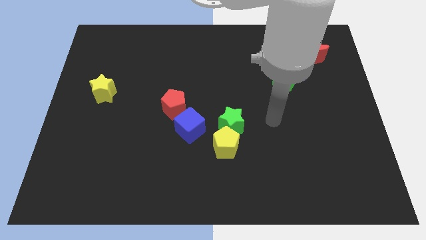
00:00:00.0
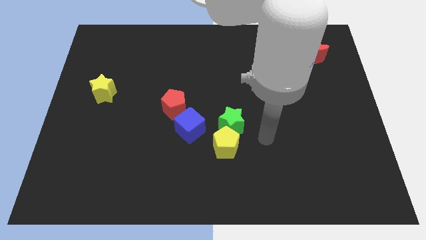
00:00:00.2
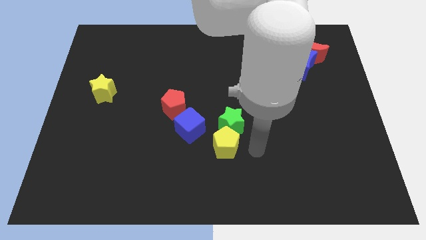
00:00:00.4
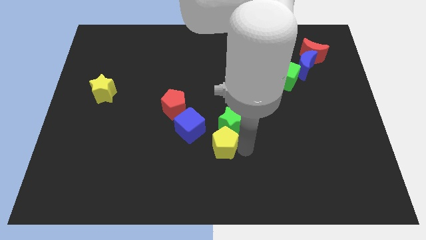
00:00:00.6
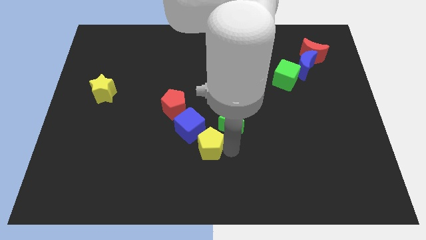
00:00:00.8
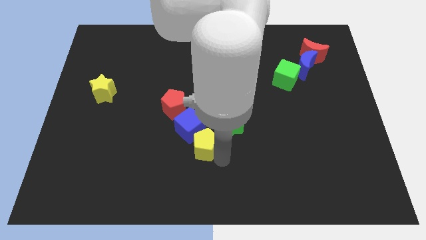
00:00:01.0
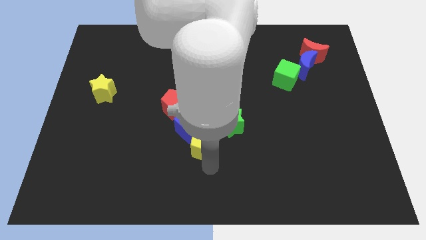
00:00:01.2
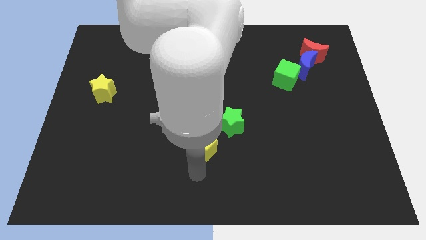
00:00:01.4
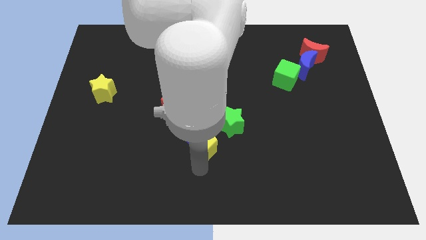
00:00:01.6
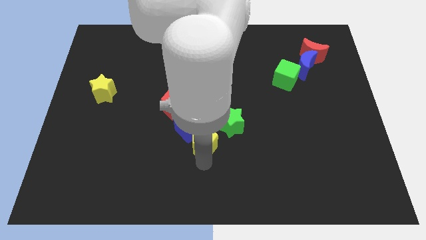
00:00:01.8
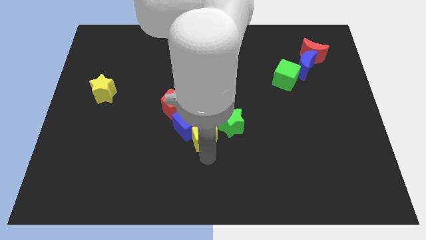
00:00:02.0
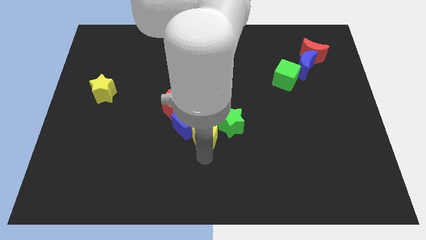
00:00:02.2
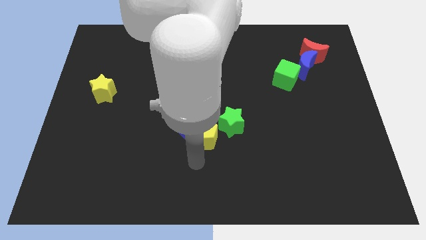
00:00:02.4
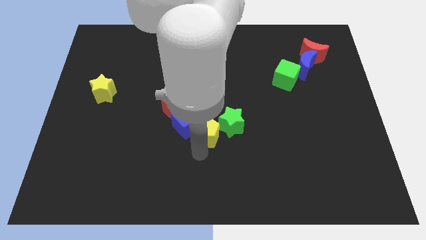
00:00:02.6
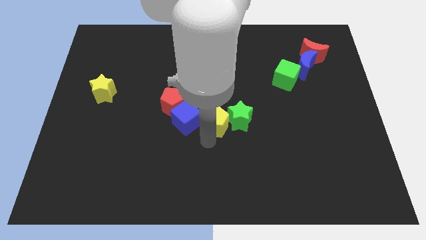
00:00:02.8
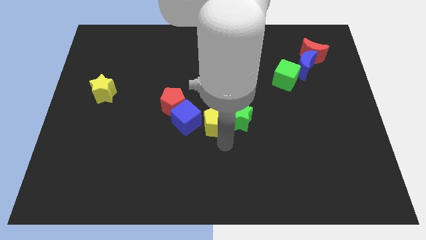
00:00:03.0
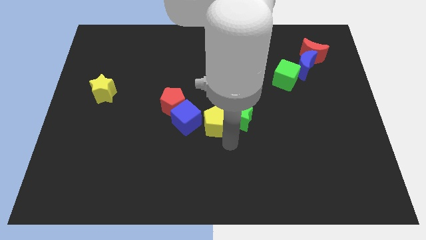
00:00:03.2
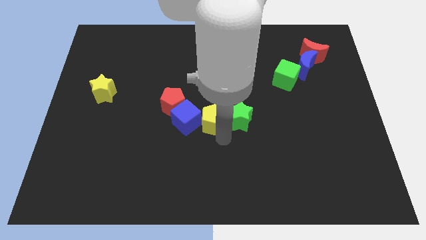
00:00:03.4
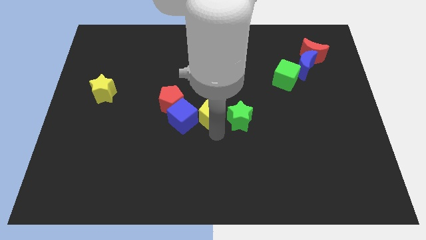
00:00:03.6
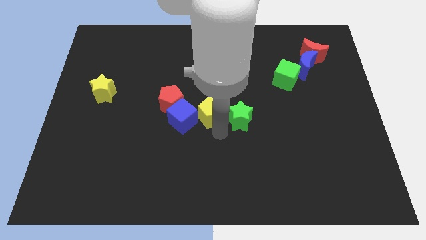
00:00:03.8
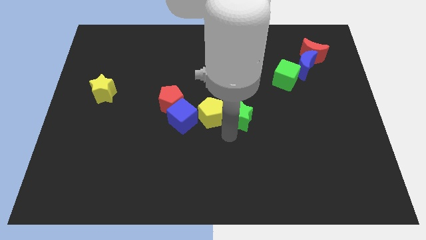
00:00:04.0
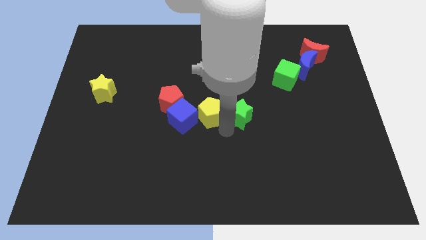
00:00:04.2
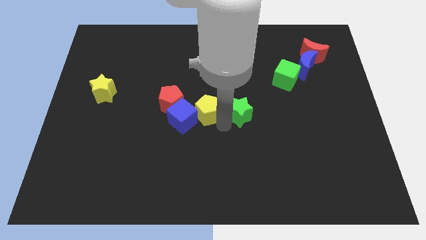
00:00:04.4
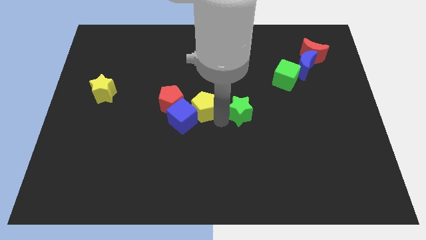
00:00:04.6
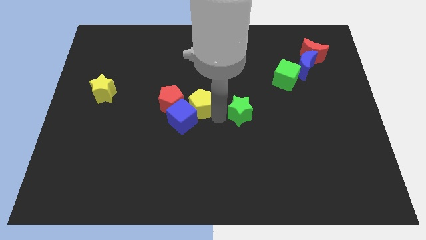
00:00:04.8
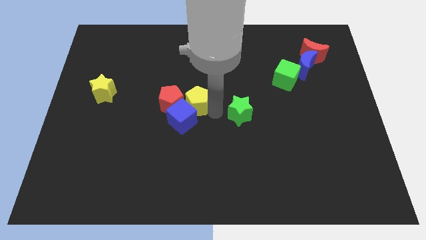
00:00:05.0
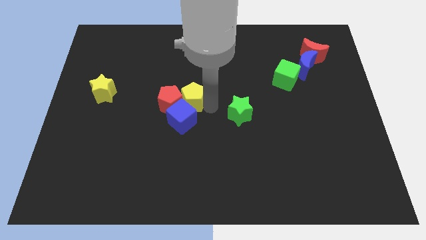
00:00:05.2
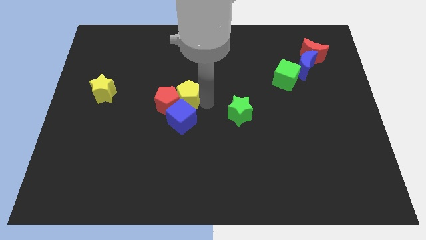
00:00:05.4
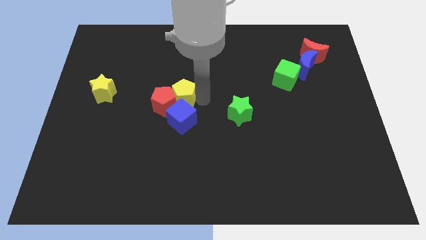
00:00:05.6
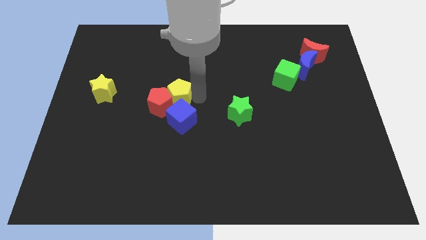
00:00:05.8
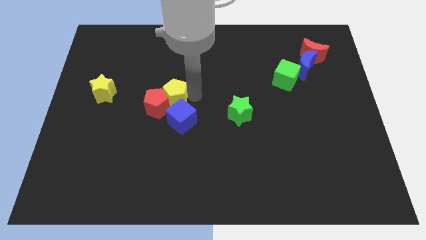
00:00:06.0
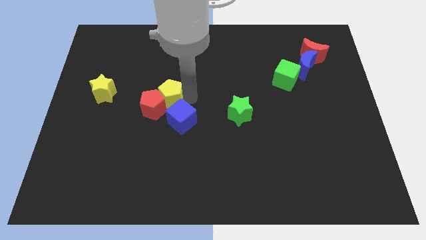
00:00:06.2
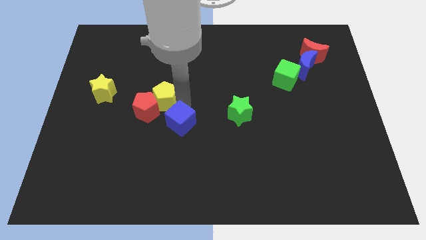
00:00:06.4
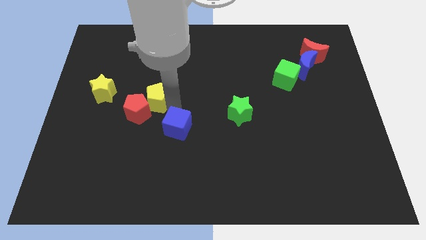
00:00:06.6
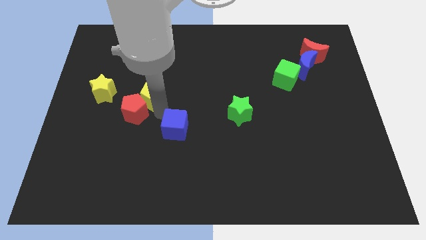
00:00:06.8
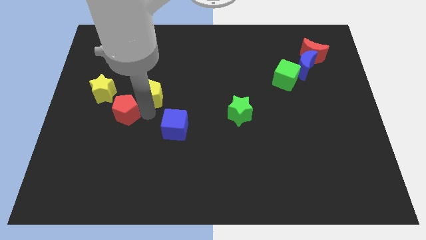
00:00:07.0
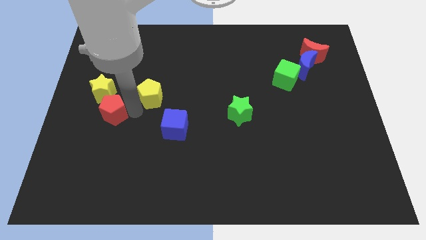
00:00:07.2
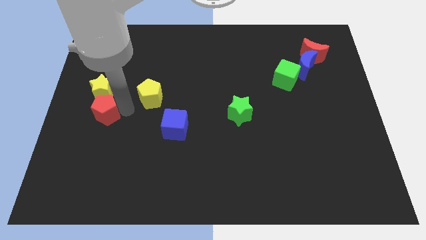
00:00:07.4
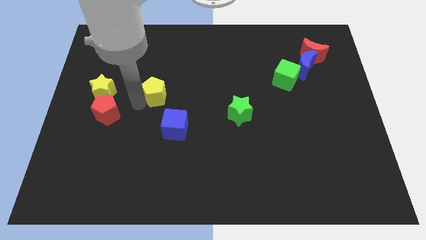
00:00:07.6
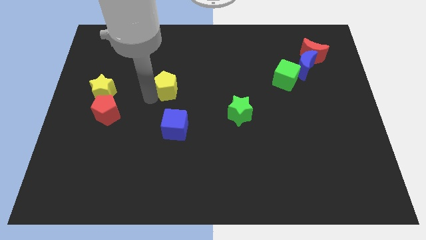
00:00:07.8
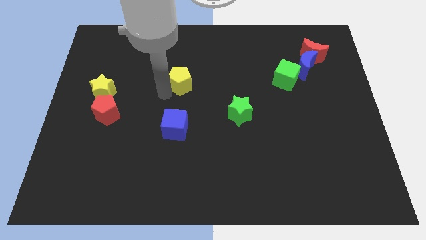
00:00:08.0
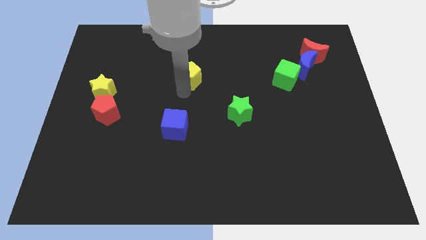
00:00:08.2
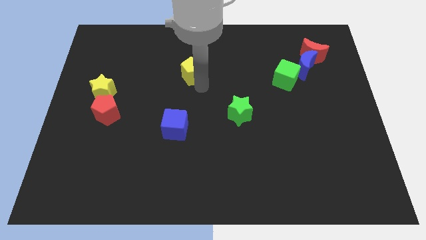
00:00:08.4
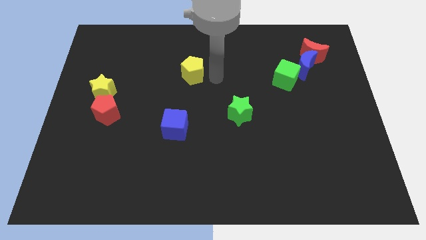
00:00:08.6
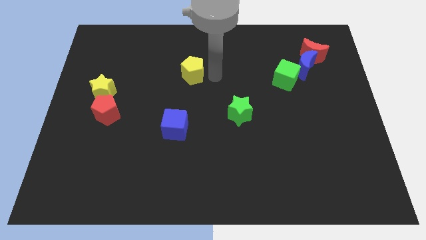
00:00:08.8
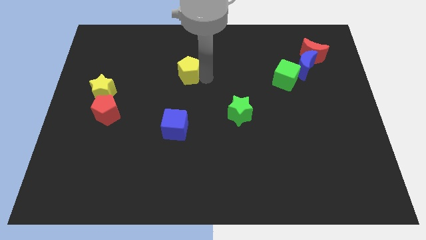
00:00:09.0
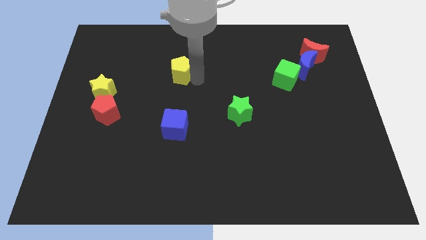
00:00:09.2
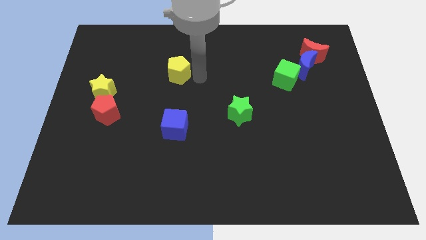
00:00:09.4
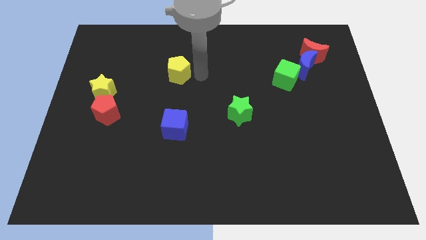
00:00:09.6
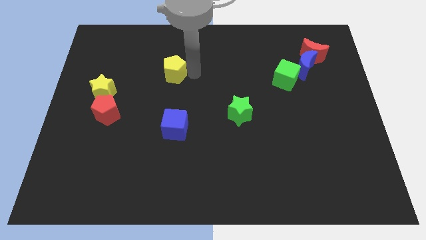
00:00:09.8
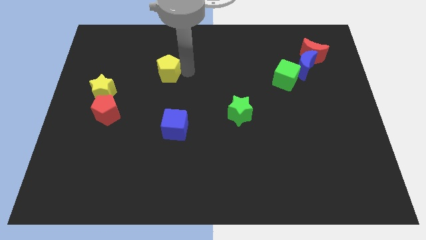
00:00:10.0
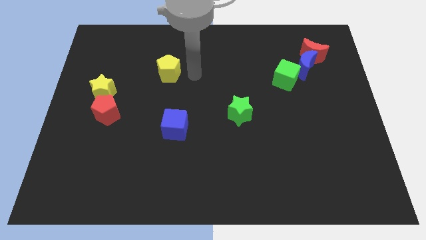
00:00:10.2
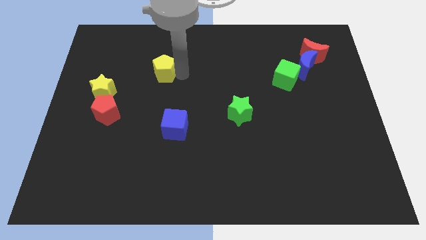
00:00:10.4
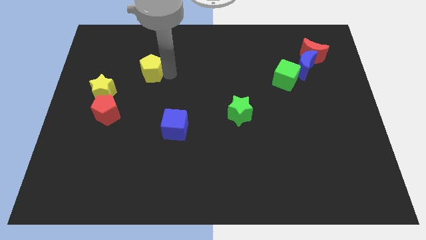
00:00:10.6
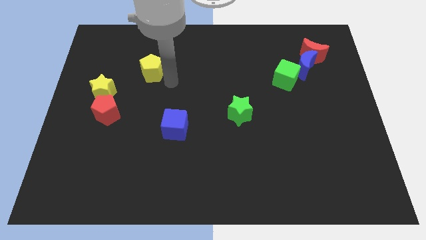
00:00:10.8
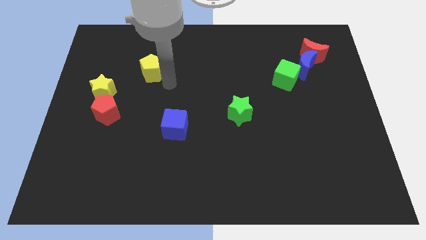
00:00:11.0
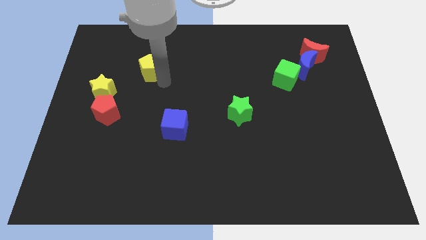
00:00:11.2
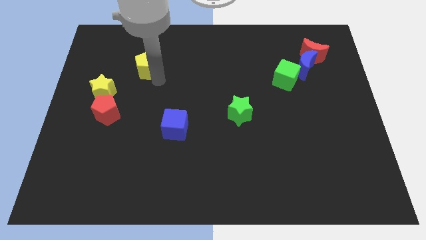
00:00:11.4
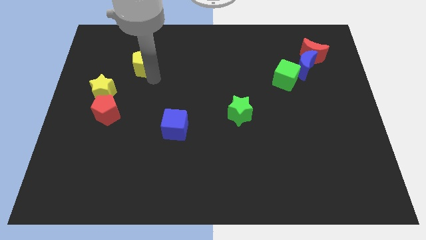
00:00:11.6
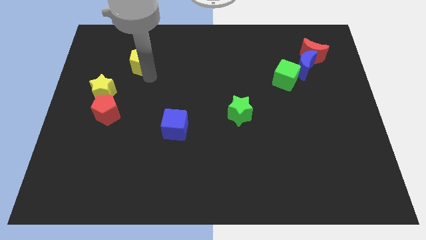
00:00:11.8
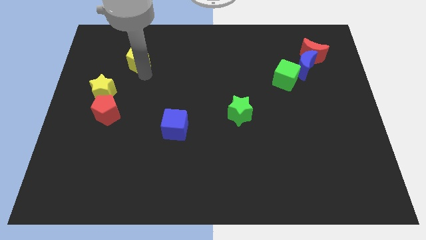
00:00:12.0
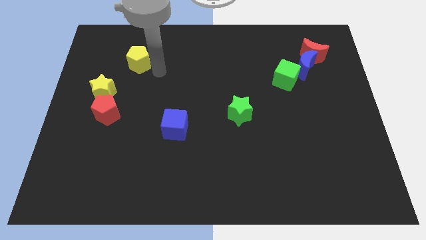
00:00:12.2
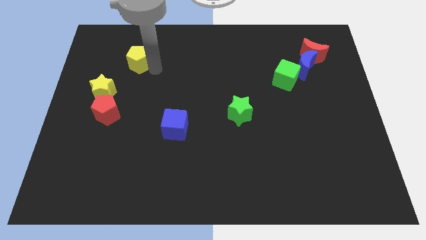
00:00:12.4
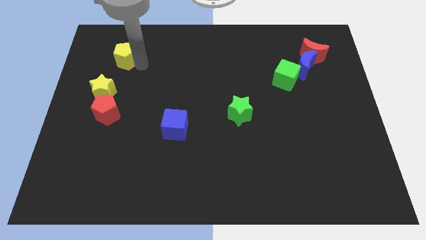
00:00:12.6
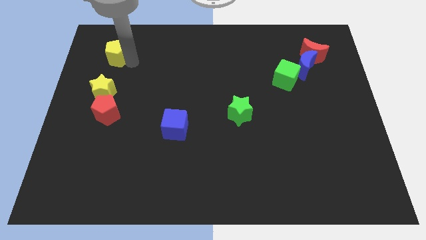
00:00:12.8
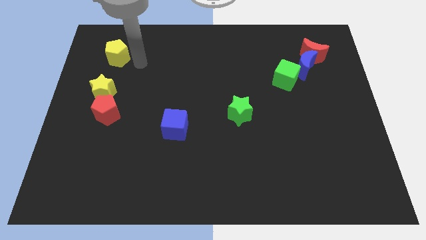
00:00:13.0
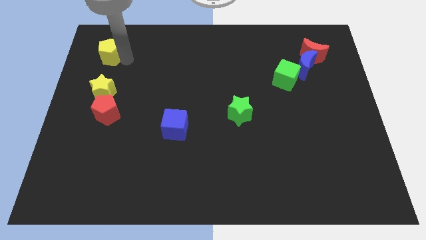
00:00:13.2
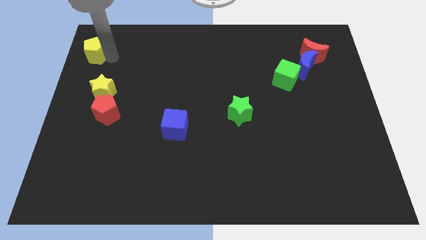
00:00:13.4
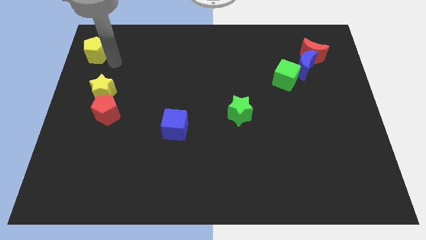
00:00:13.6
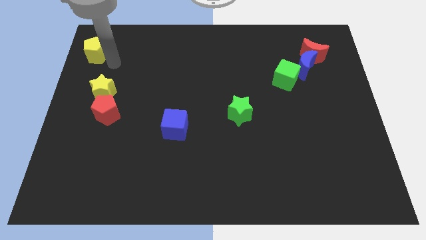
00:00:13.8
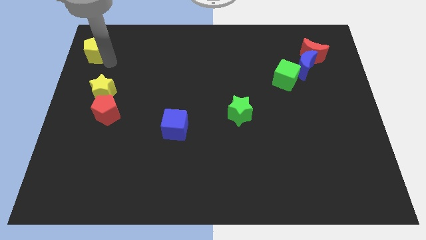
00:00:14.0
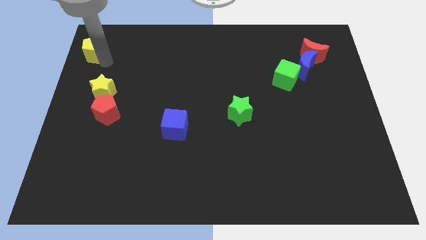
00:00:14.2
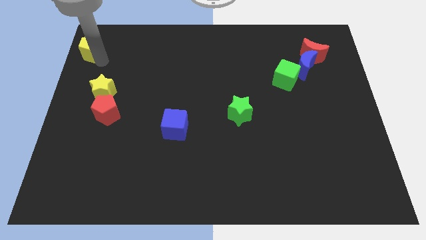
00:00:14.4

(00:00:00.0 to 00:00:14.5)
push the yellow pentagon to the top left corner
